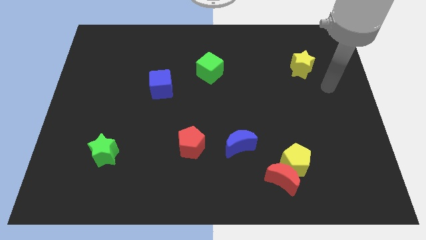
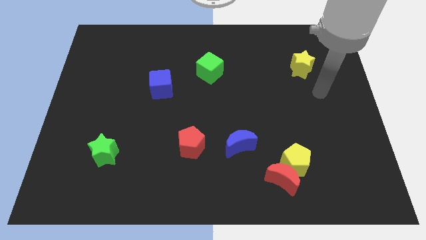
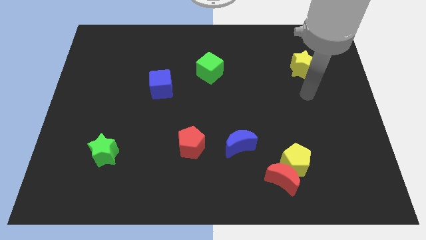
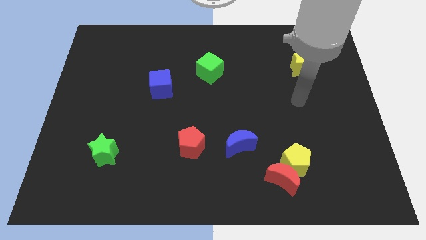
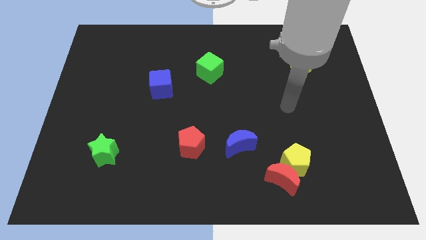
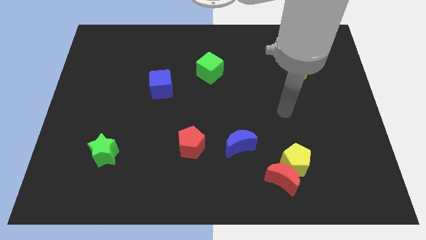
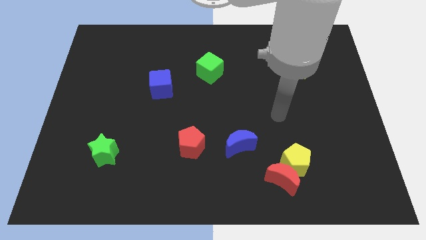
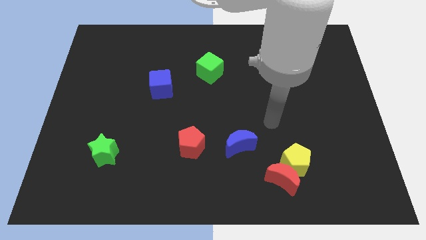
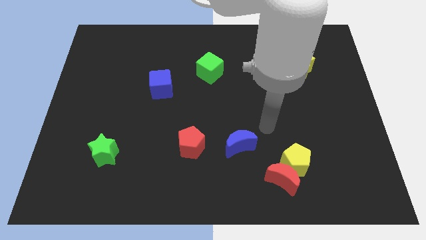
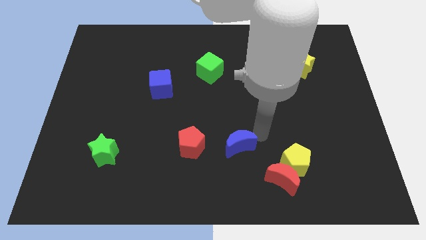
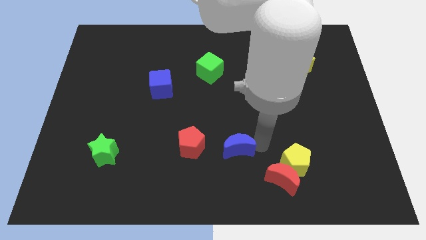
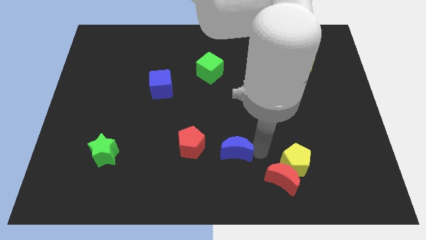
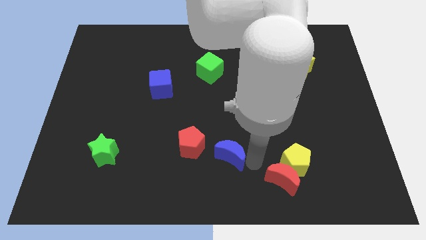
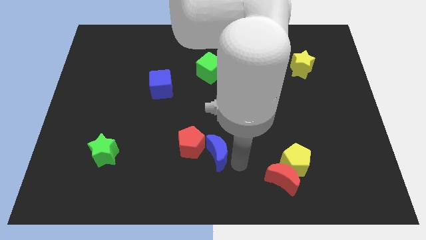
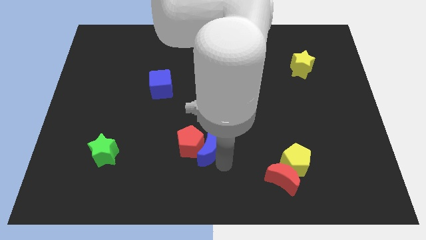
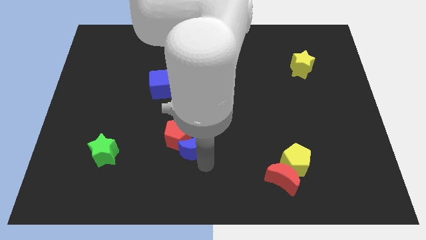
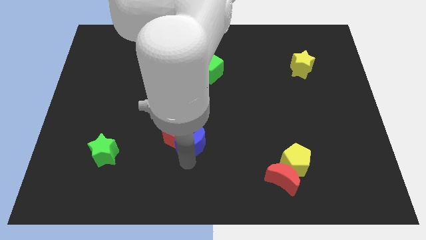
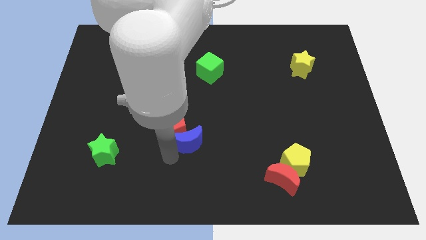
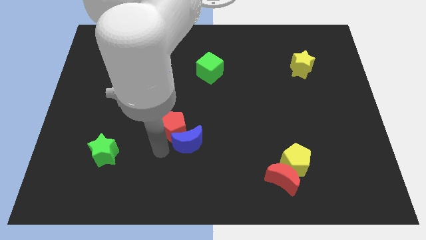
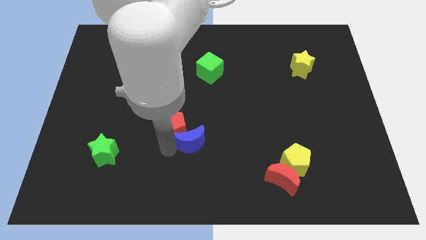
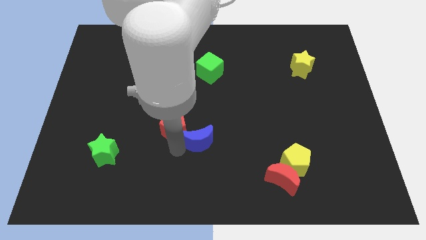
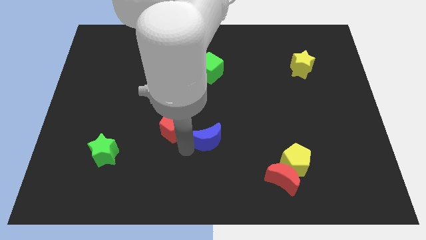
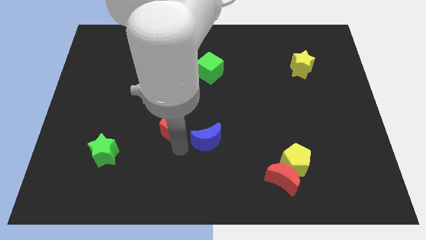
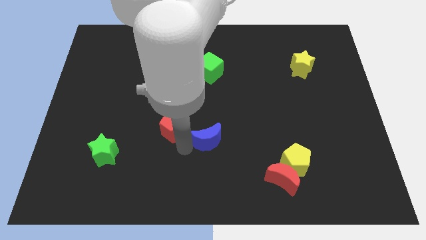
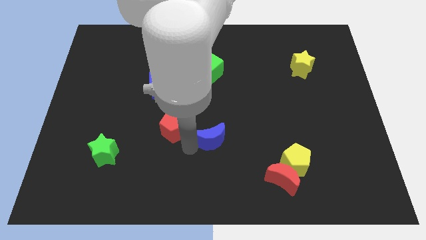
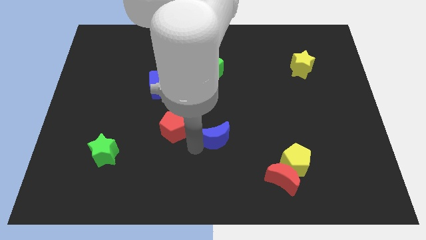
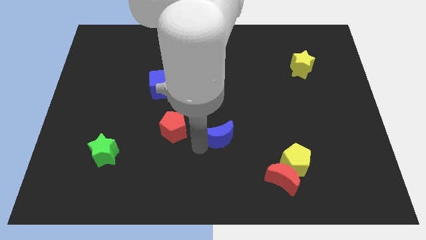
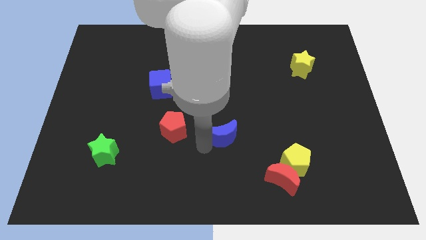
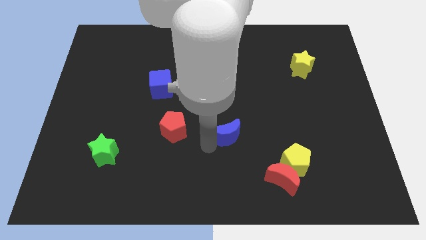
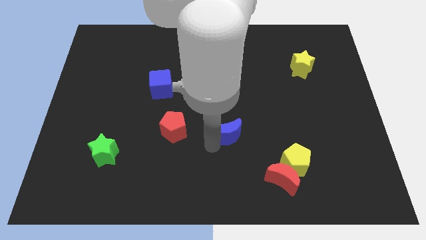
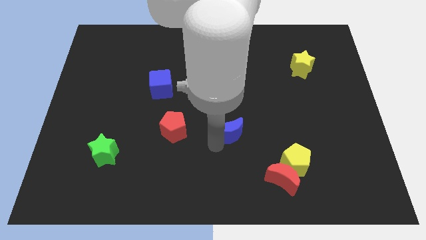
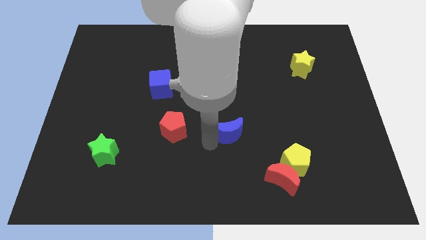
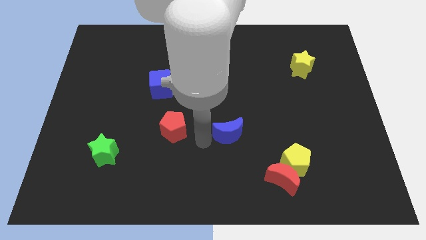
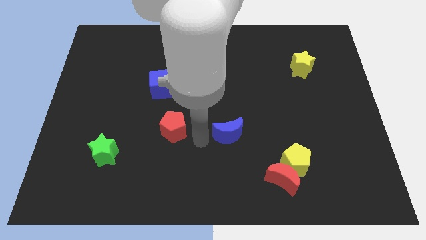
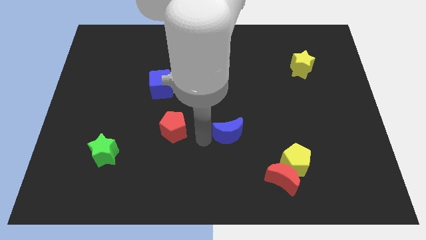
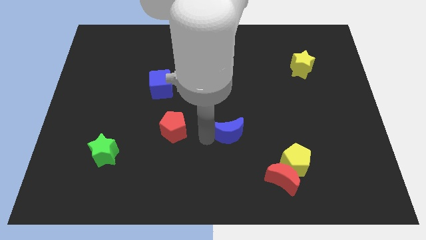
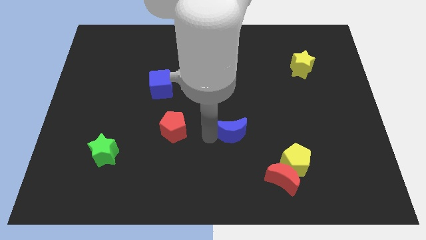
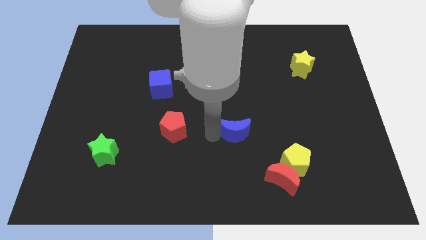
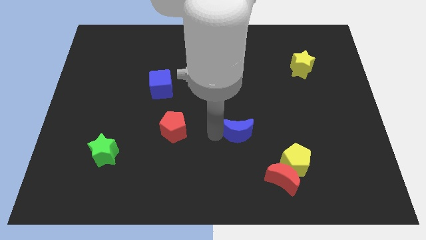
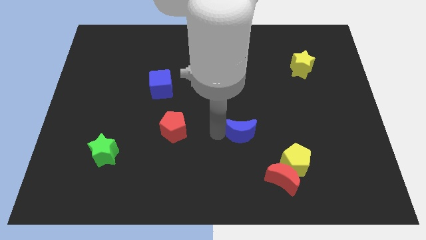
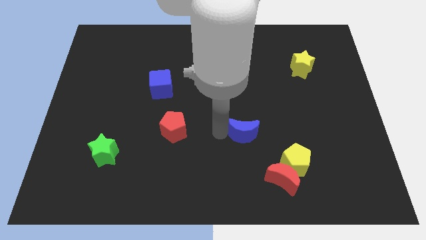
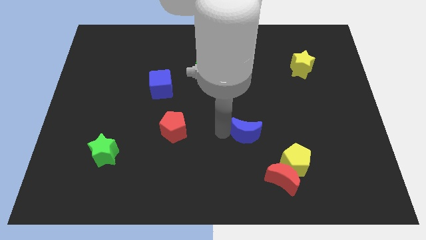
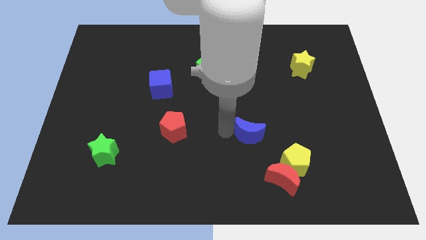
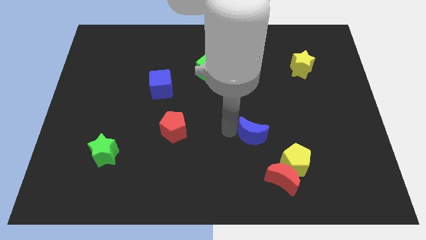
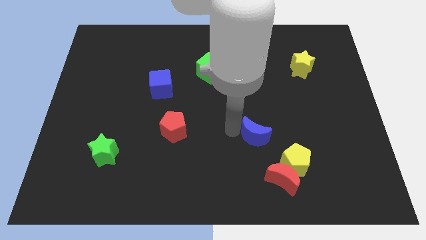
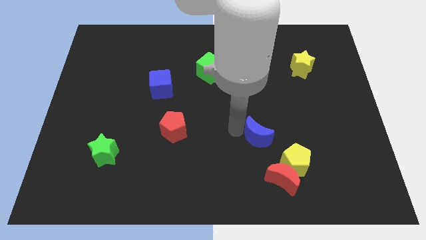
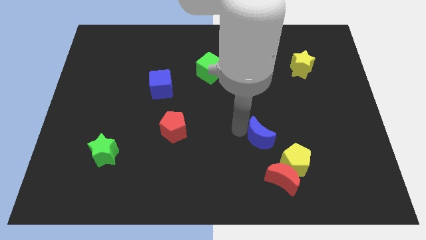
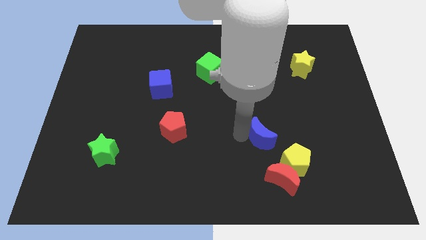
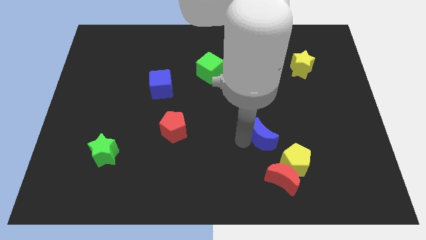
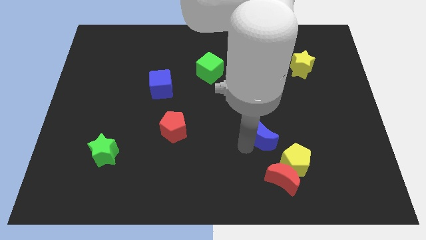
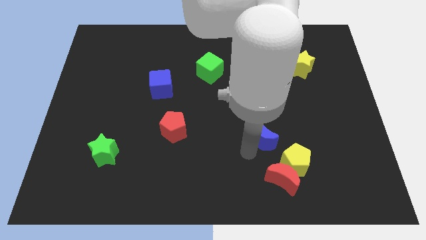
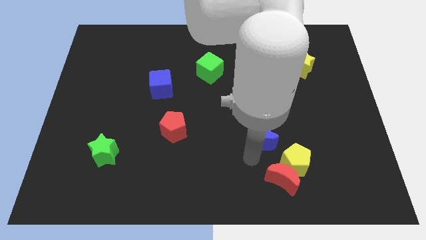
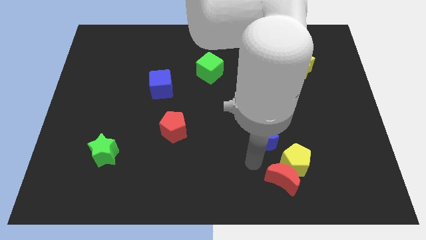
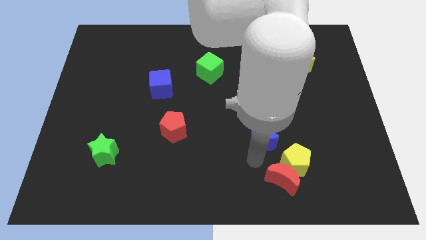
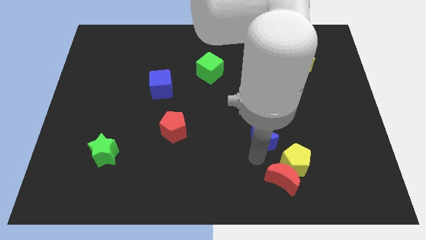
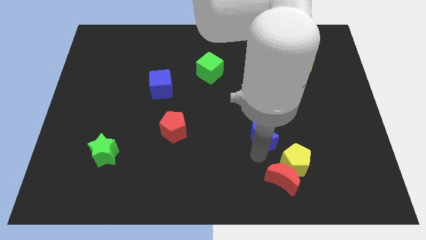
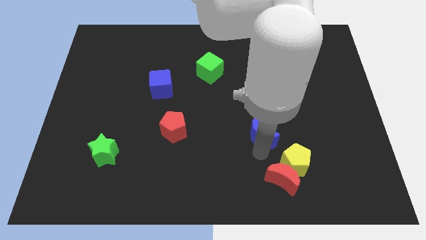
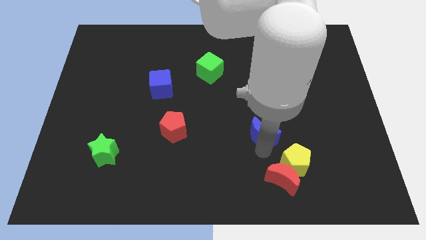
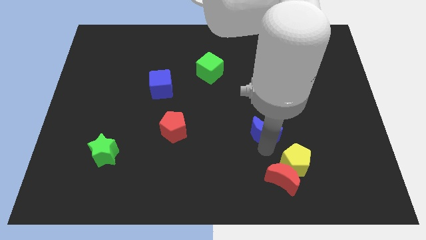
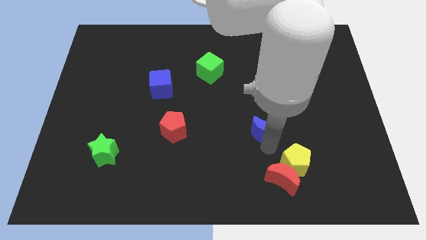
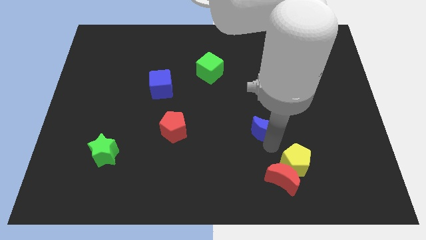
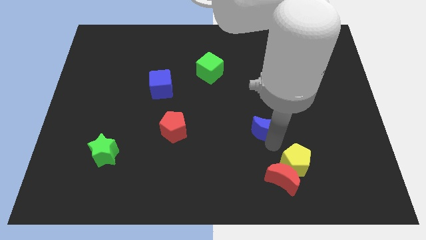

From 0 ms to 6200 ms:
slightly push the blue moon upwards and right

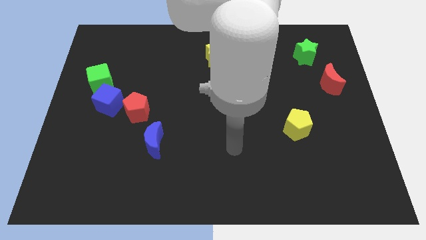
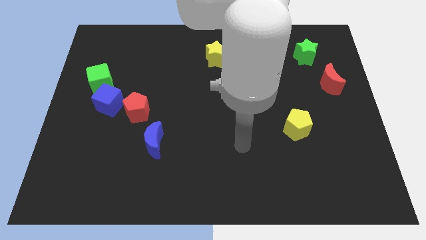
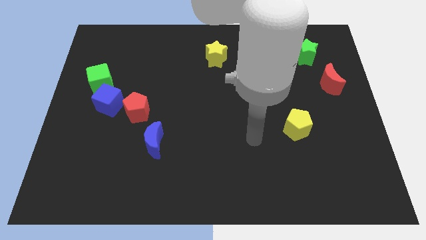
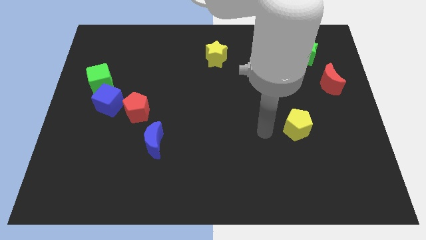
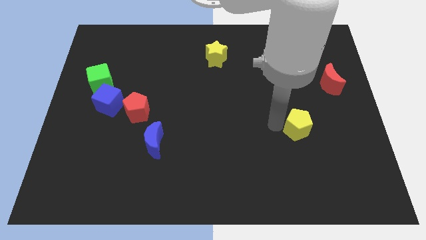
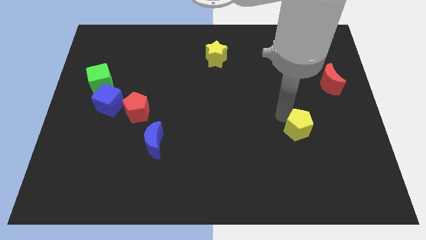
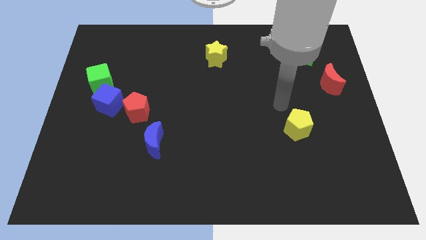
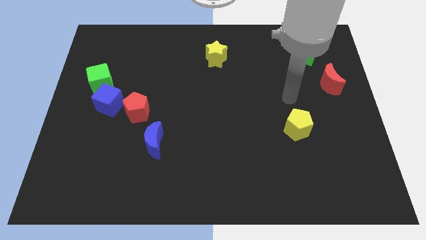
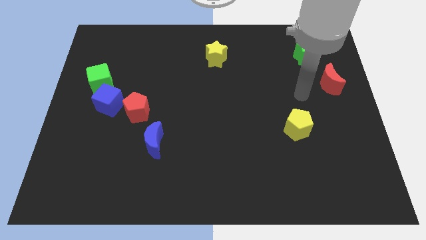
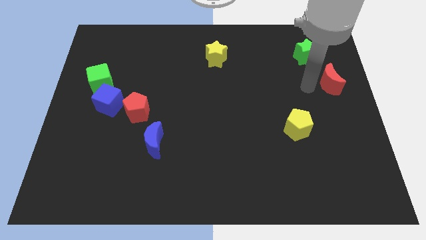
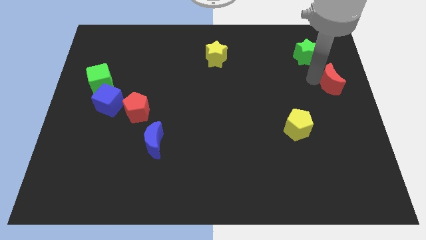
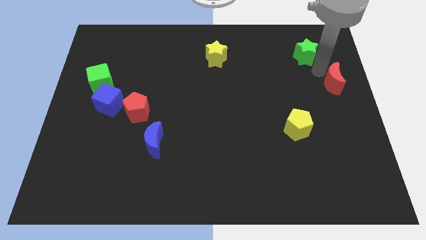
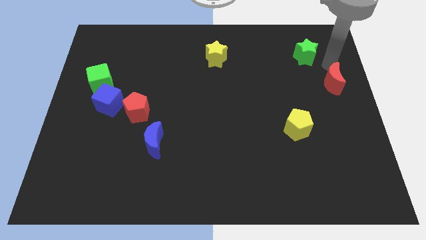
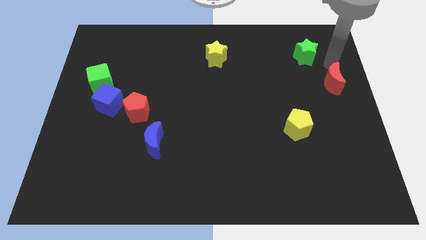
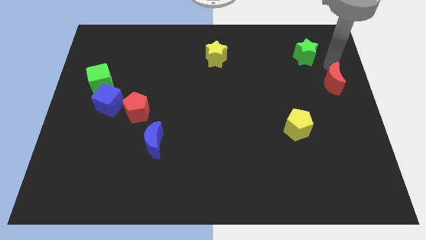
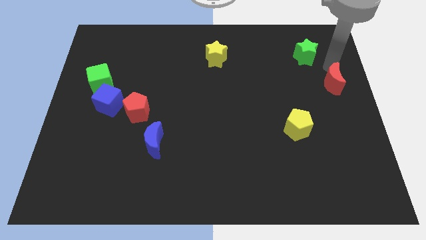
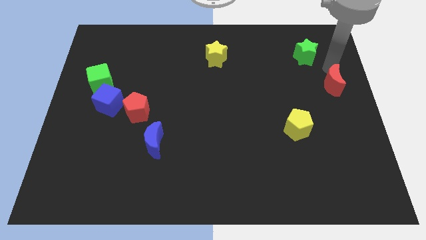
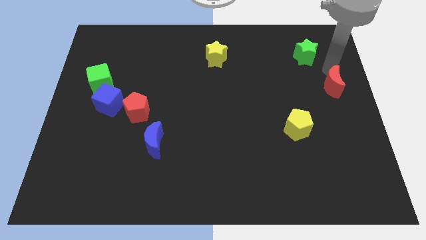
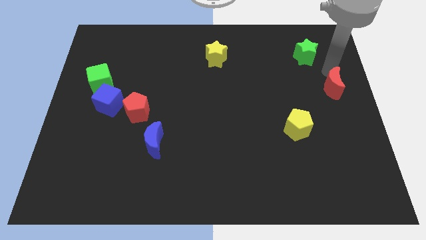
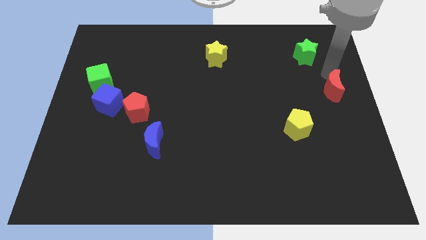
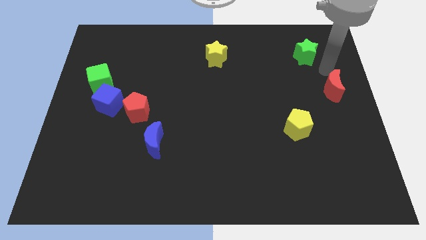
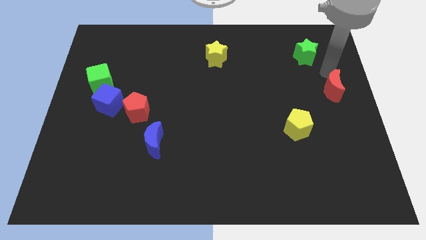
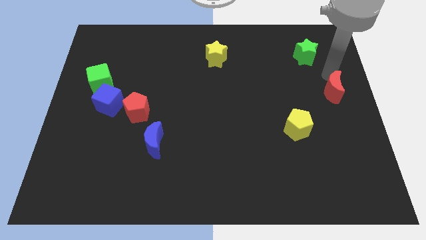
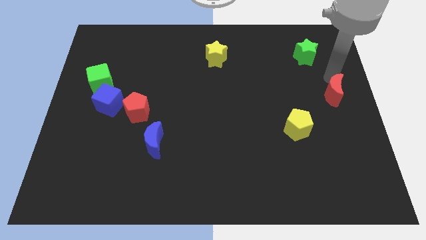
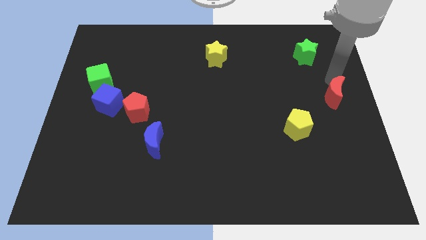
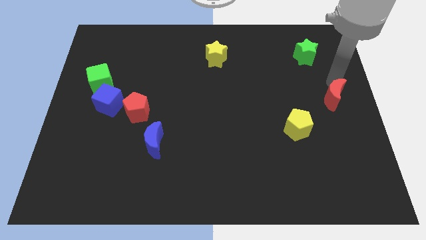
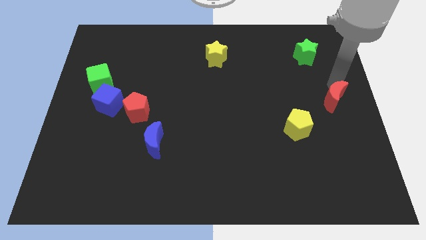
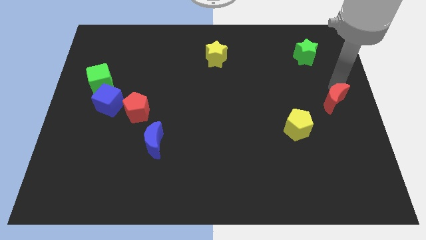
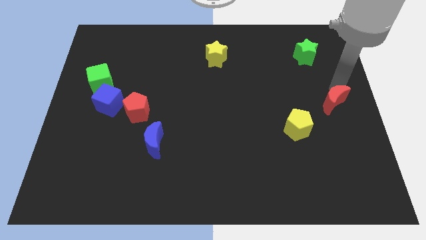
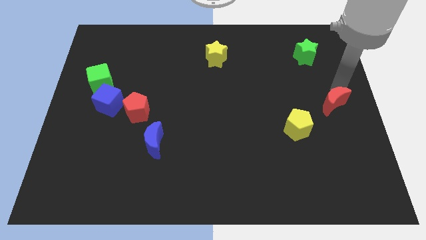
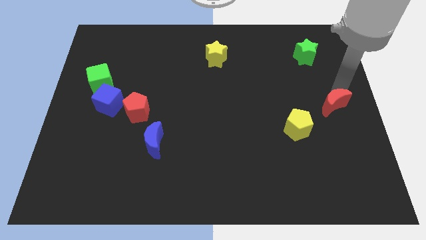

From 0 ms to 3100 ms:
slide the red moon somewhat downwards
